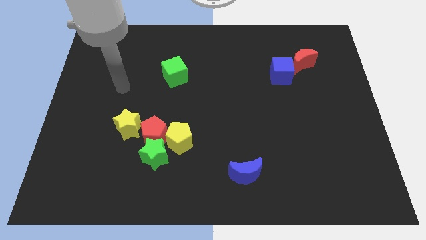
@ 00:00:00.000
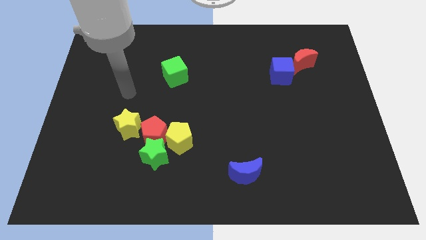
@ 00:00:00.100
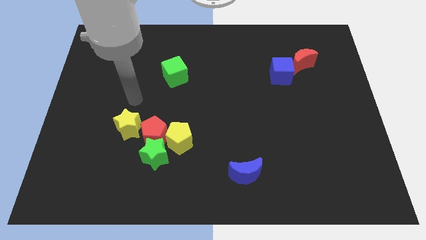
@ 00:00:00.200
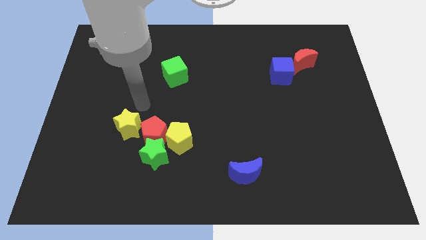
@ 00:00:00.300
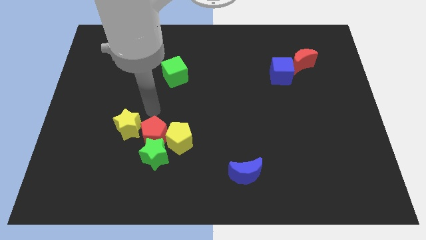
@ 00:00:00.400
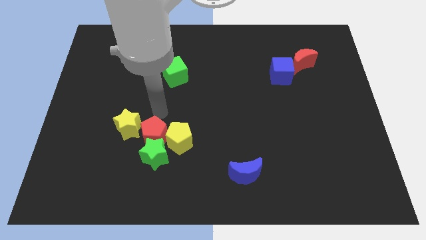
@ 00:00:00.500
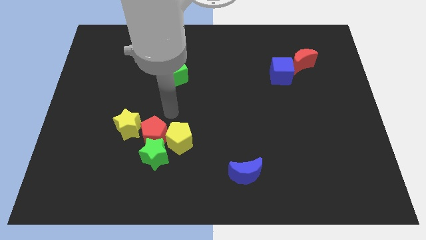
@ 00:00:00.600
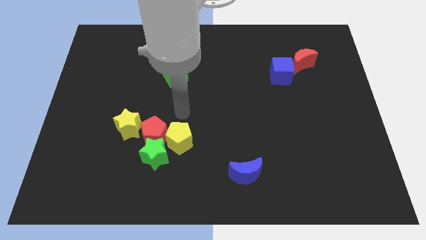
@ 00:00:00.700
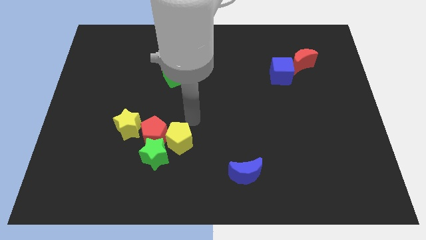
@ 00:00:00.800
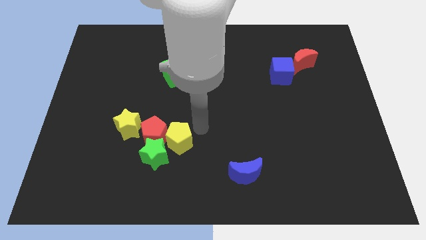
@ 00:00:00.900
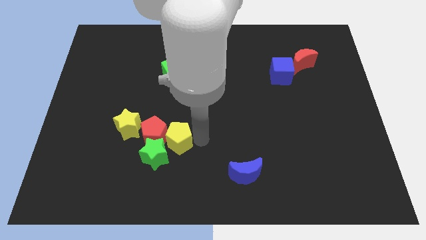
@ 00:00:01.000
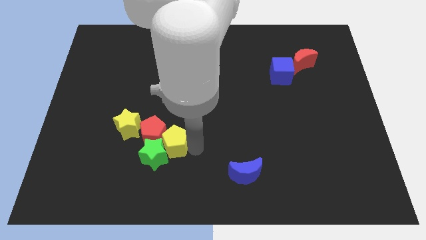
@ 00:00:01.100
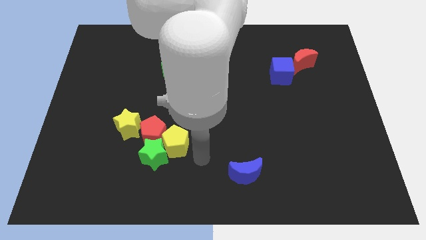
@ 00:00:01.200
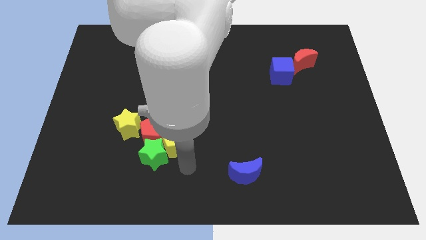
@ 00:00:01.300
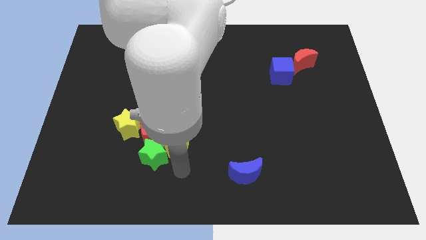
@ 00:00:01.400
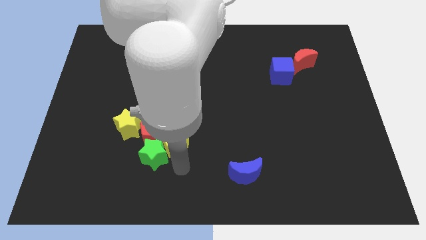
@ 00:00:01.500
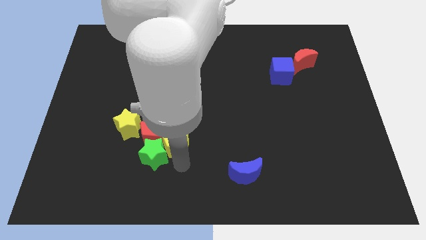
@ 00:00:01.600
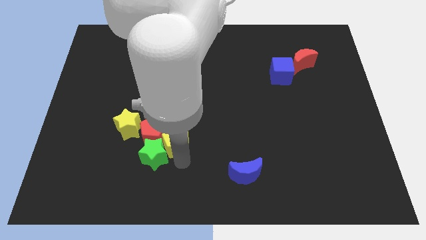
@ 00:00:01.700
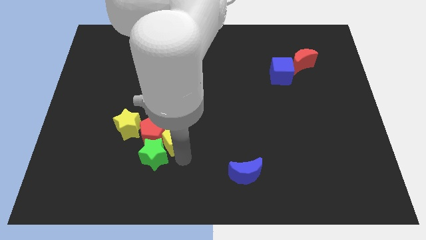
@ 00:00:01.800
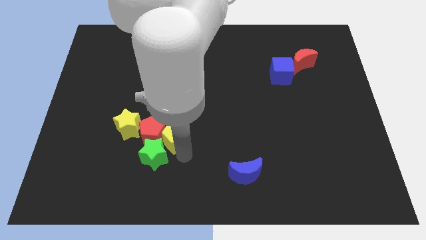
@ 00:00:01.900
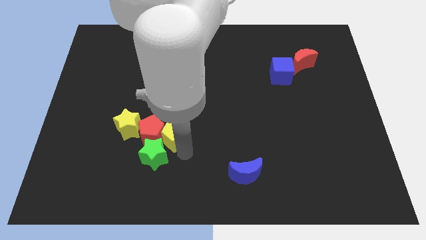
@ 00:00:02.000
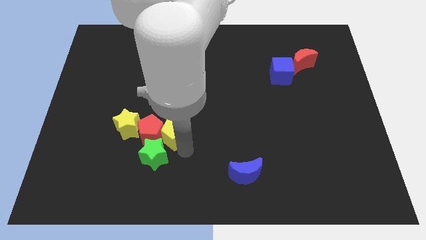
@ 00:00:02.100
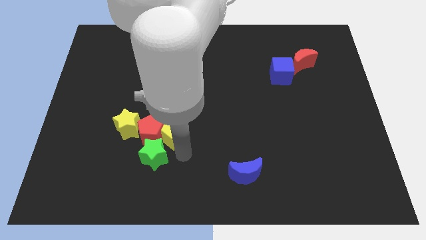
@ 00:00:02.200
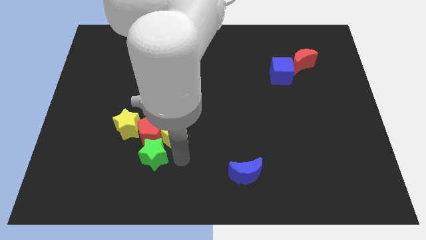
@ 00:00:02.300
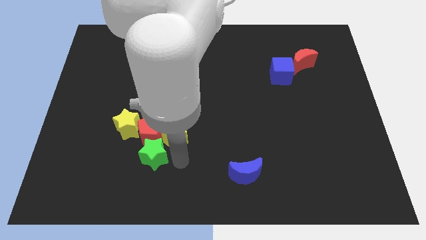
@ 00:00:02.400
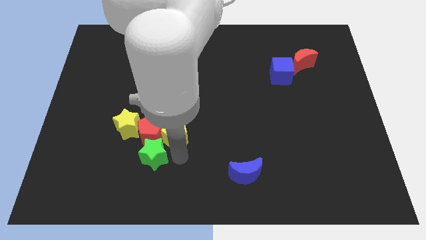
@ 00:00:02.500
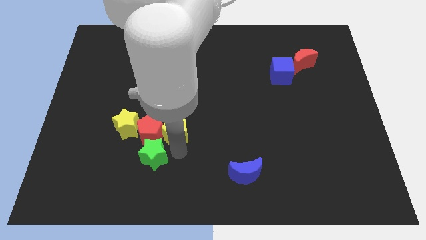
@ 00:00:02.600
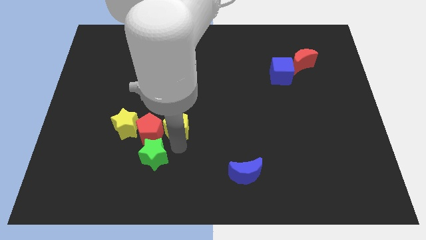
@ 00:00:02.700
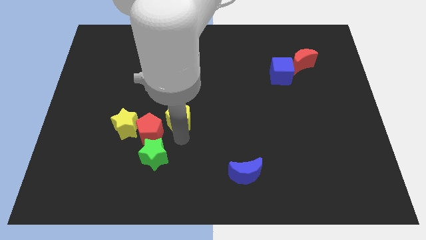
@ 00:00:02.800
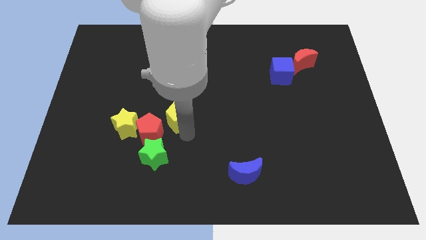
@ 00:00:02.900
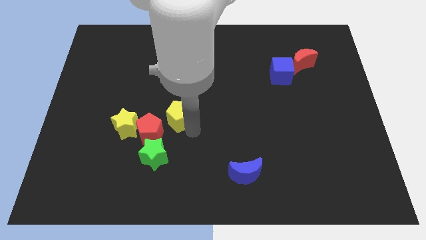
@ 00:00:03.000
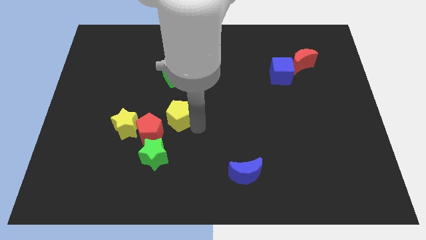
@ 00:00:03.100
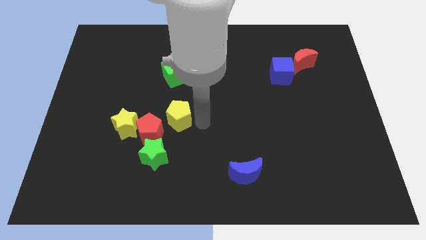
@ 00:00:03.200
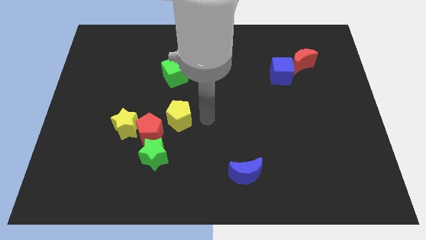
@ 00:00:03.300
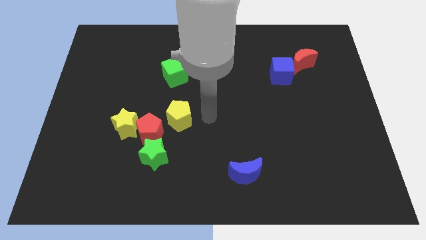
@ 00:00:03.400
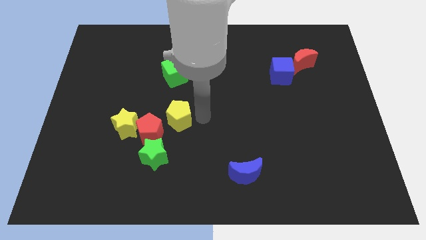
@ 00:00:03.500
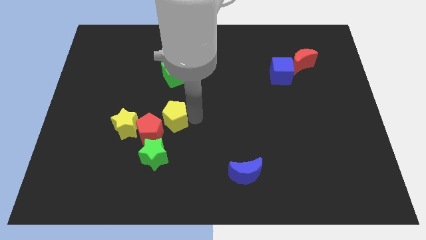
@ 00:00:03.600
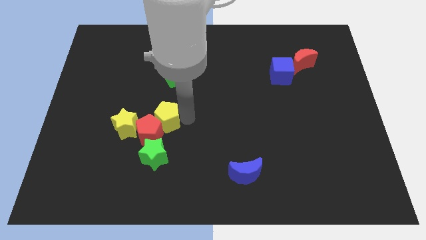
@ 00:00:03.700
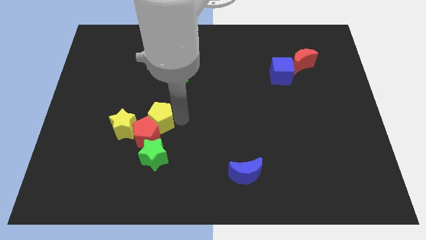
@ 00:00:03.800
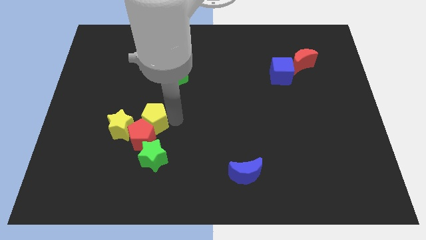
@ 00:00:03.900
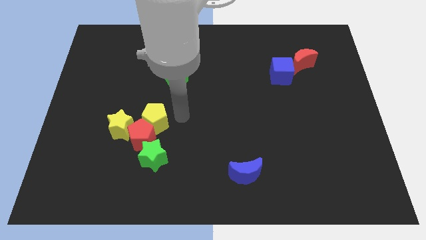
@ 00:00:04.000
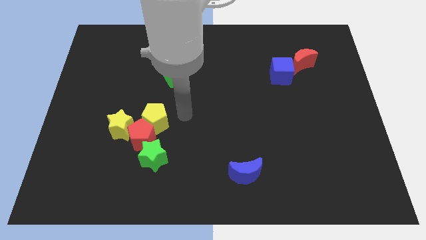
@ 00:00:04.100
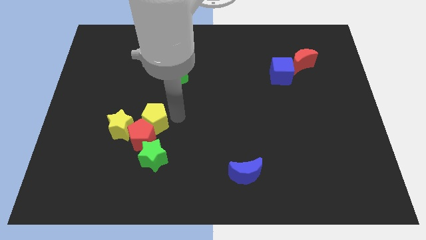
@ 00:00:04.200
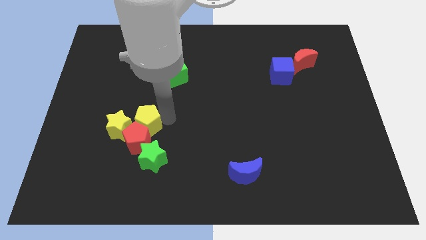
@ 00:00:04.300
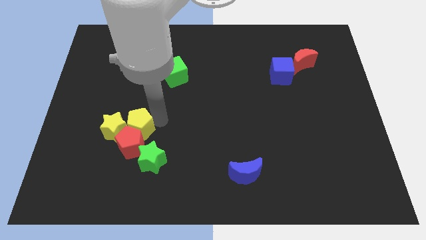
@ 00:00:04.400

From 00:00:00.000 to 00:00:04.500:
slide the yellow pentagon close to the yellow star

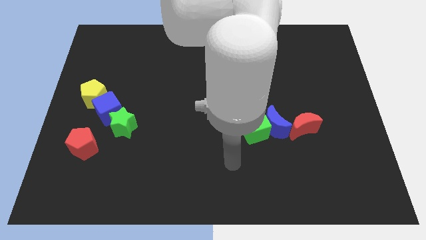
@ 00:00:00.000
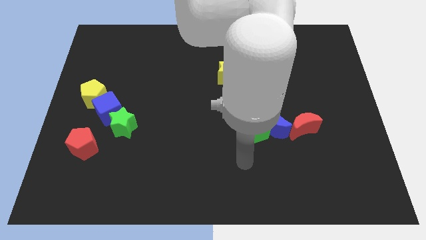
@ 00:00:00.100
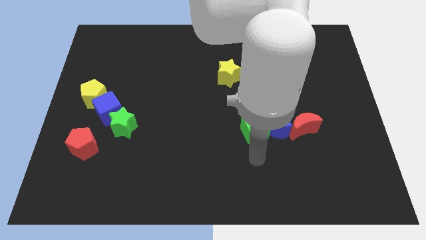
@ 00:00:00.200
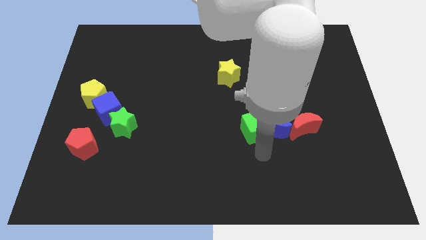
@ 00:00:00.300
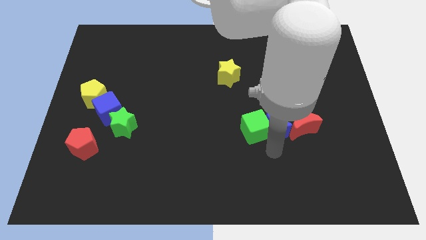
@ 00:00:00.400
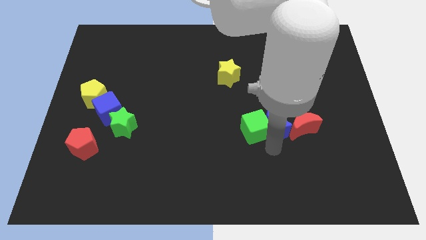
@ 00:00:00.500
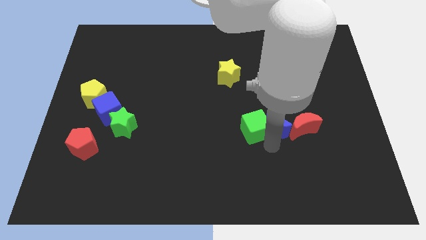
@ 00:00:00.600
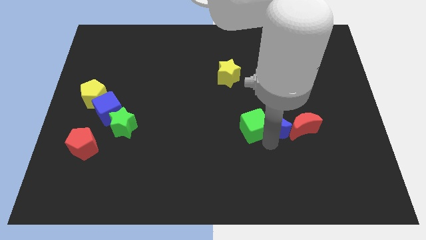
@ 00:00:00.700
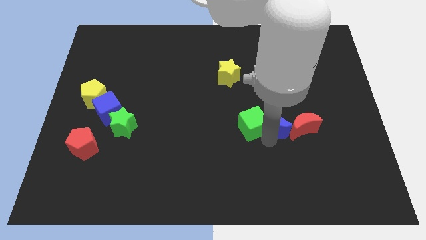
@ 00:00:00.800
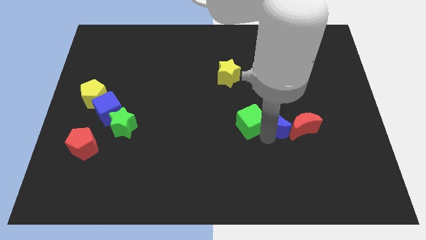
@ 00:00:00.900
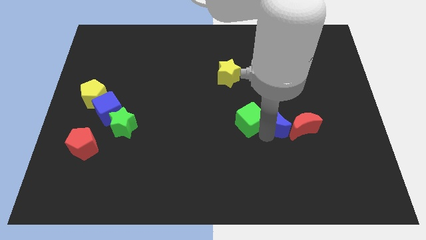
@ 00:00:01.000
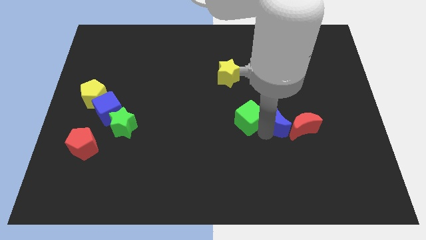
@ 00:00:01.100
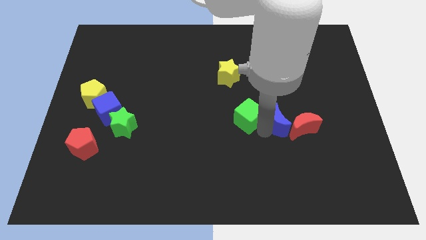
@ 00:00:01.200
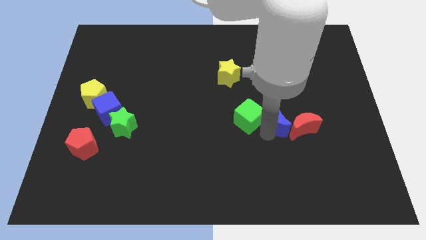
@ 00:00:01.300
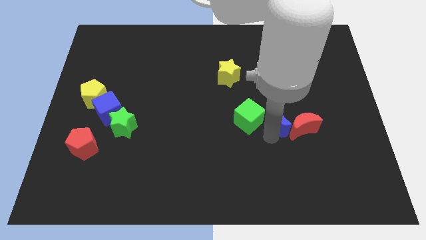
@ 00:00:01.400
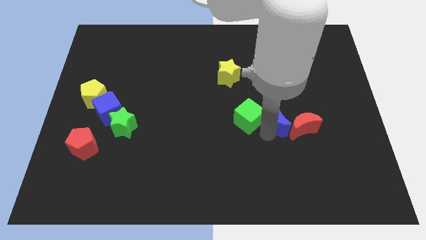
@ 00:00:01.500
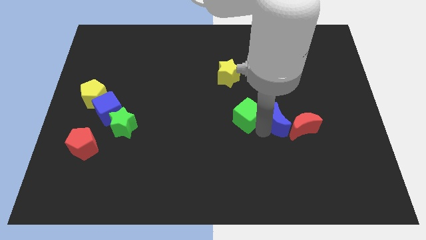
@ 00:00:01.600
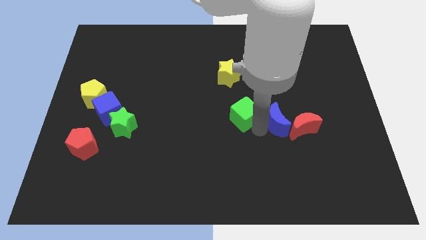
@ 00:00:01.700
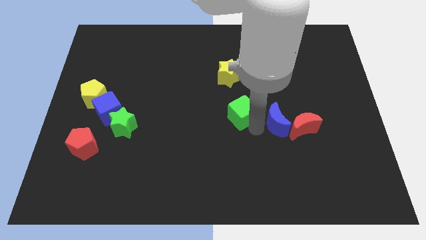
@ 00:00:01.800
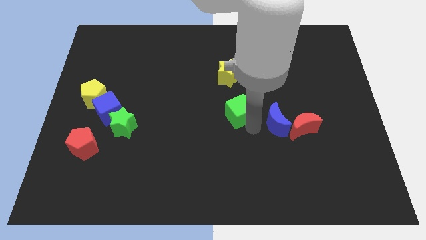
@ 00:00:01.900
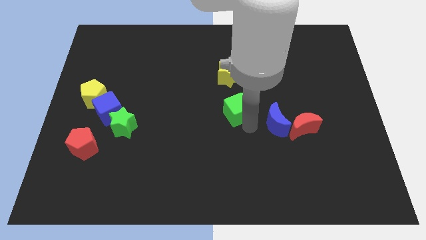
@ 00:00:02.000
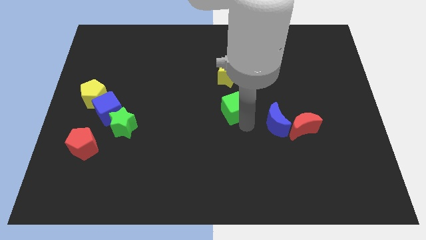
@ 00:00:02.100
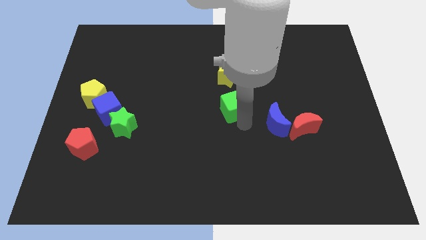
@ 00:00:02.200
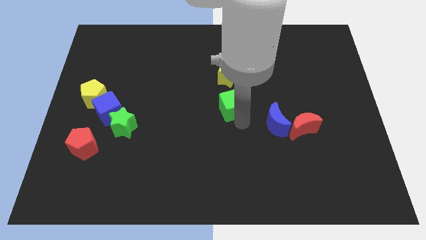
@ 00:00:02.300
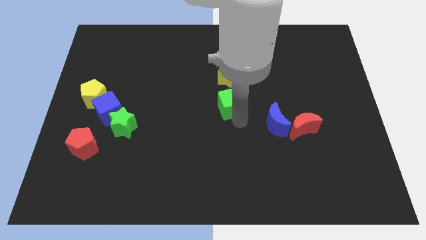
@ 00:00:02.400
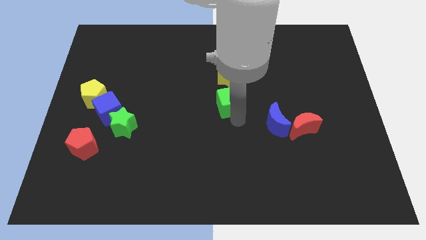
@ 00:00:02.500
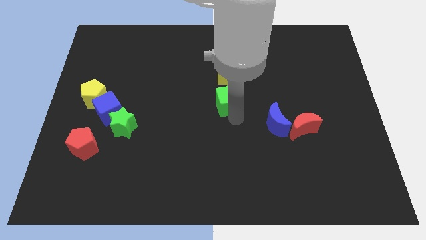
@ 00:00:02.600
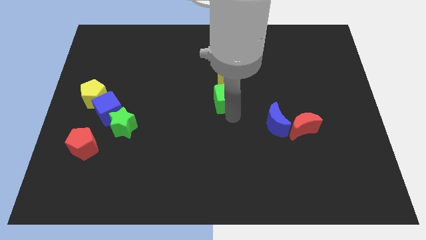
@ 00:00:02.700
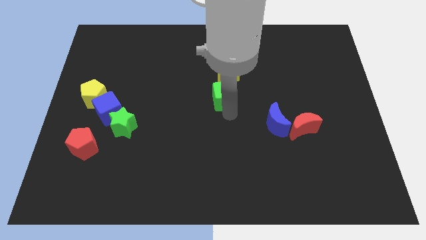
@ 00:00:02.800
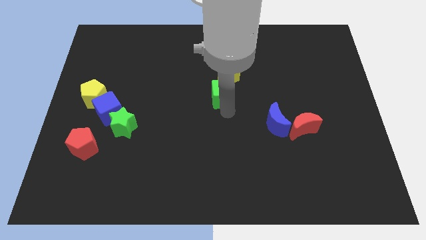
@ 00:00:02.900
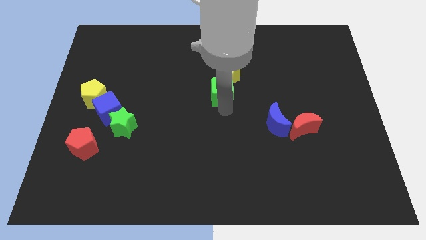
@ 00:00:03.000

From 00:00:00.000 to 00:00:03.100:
slide the green cube next to the yellow star
